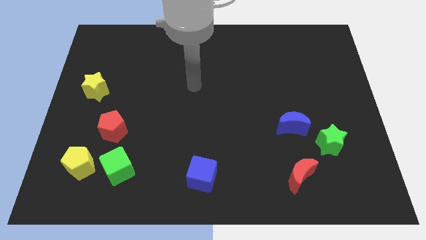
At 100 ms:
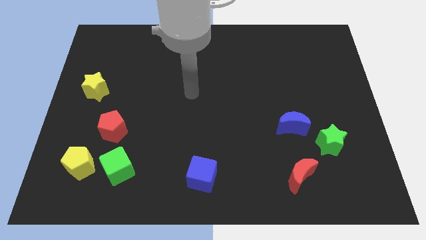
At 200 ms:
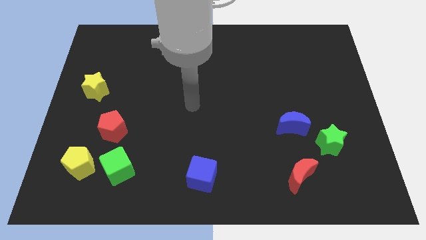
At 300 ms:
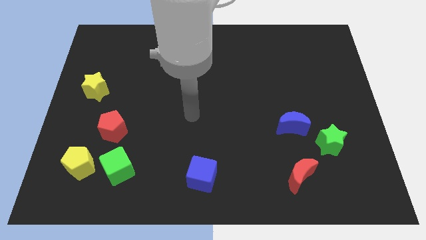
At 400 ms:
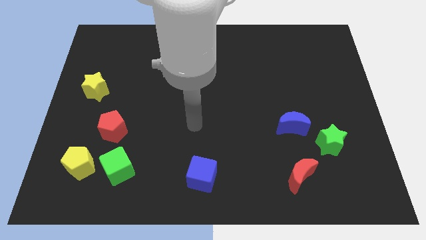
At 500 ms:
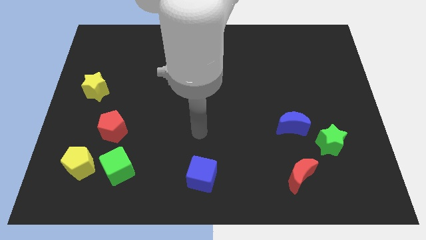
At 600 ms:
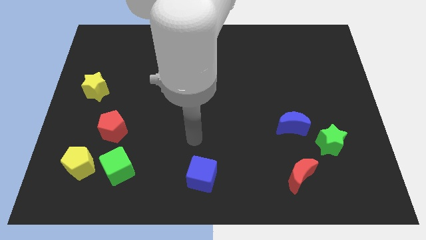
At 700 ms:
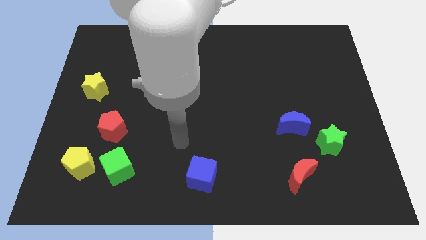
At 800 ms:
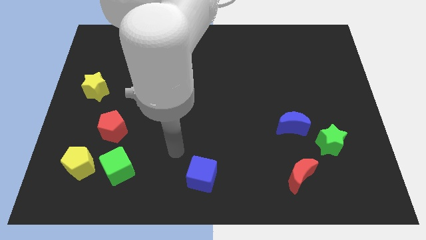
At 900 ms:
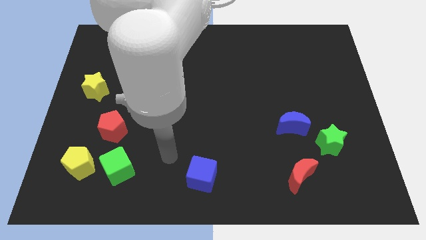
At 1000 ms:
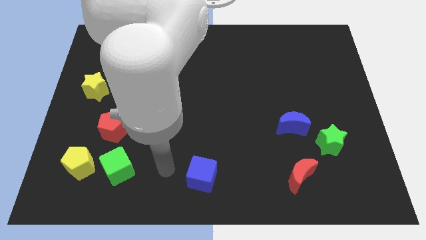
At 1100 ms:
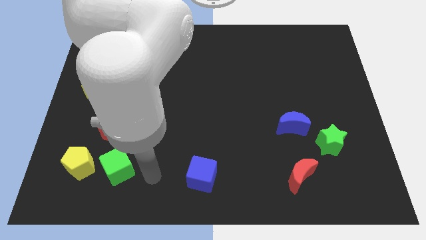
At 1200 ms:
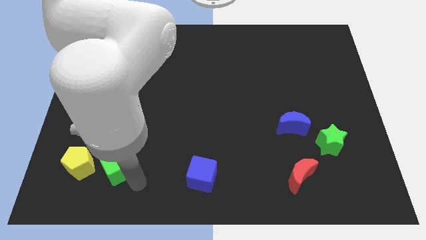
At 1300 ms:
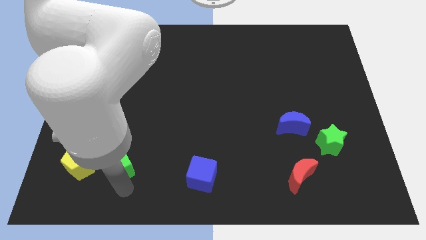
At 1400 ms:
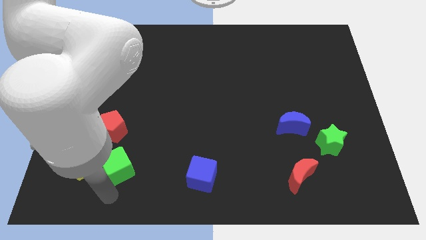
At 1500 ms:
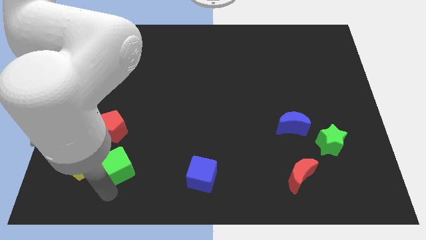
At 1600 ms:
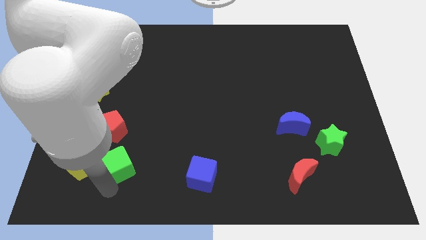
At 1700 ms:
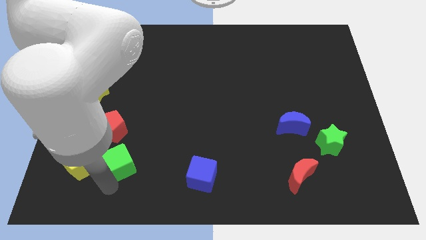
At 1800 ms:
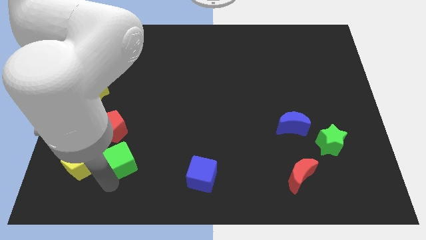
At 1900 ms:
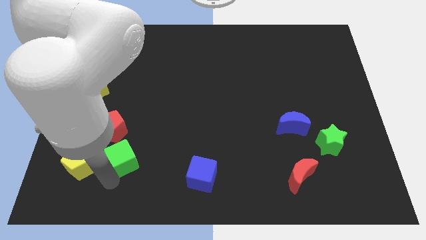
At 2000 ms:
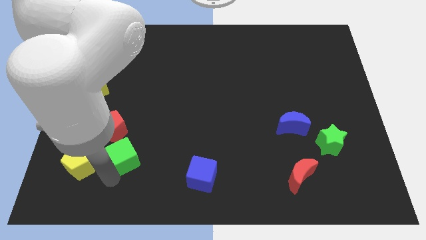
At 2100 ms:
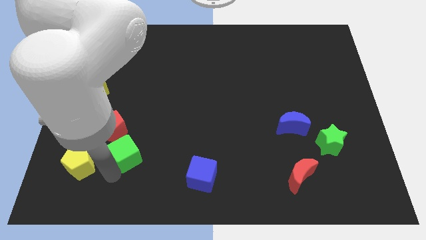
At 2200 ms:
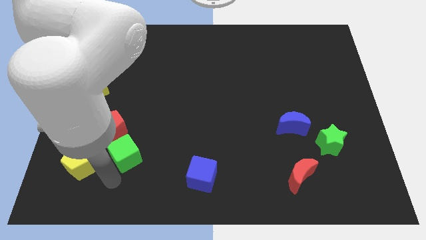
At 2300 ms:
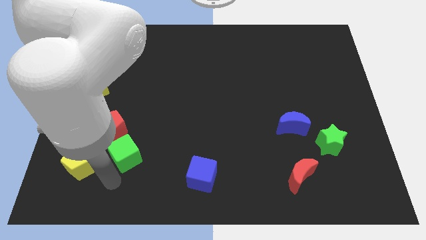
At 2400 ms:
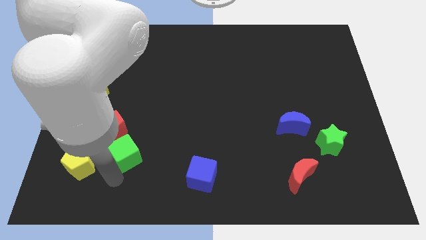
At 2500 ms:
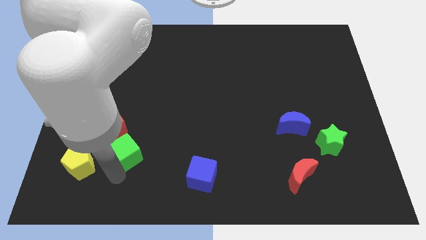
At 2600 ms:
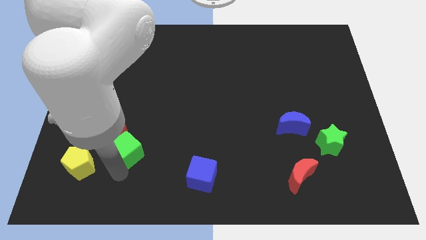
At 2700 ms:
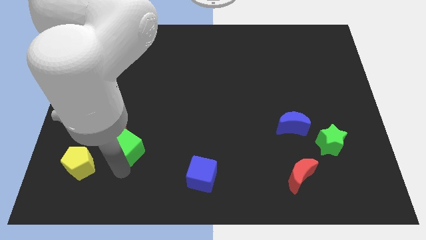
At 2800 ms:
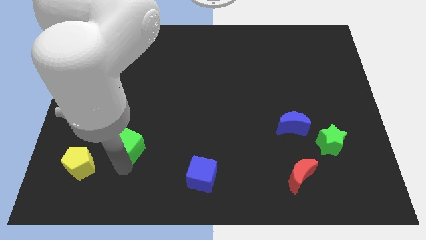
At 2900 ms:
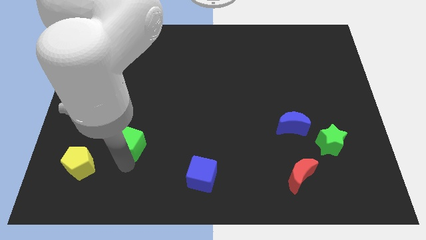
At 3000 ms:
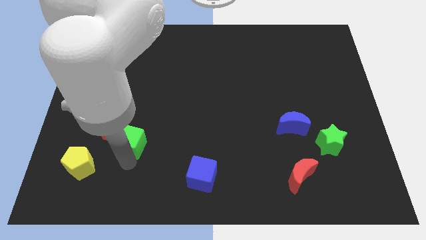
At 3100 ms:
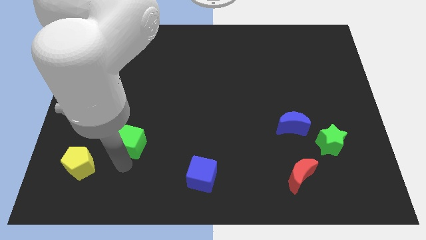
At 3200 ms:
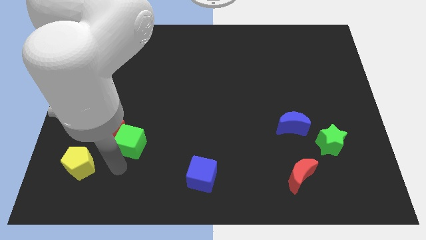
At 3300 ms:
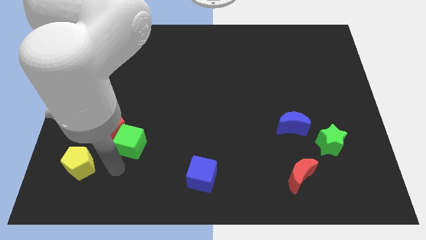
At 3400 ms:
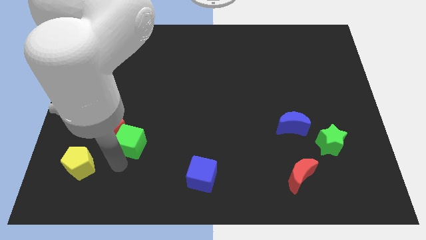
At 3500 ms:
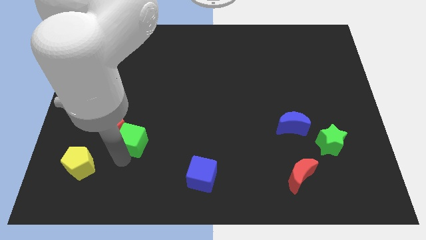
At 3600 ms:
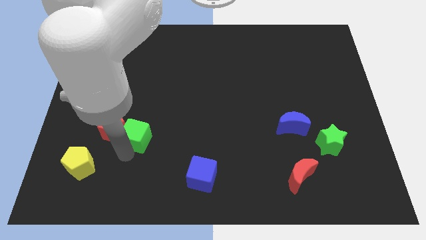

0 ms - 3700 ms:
slide the green cube up somewhat

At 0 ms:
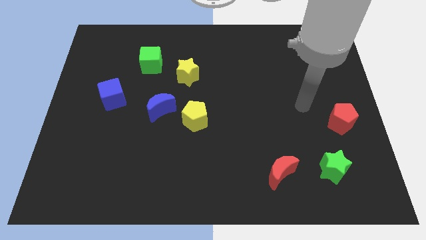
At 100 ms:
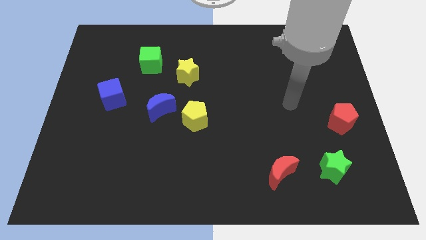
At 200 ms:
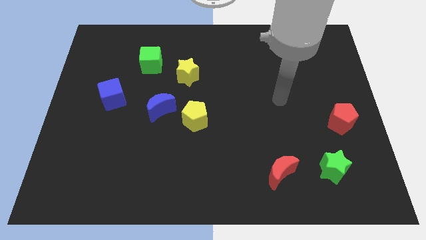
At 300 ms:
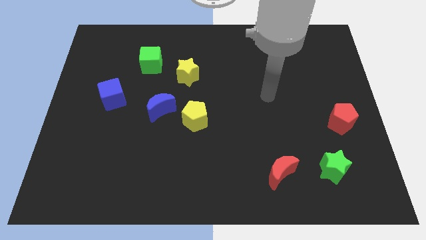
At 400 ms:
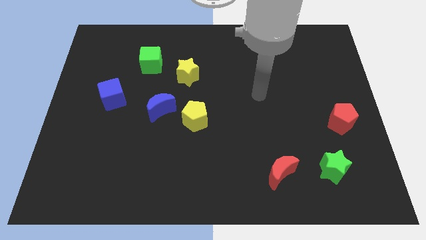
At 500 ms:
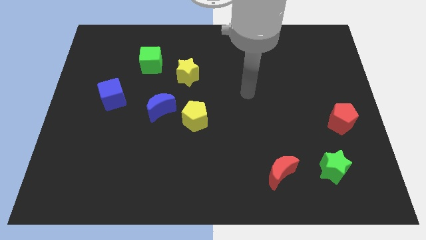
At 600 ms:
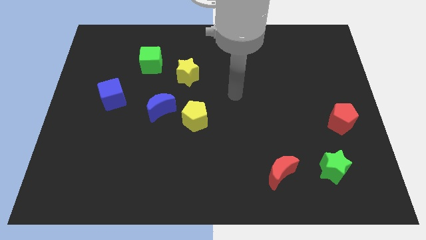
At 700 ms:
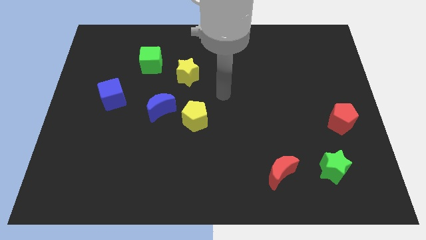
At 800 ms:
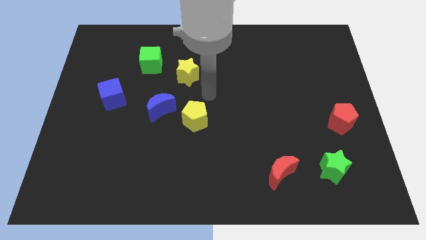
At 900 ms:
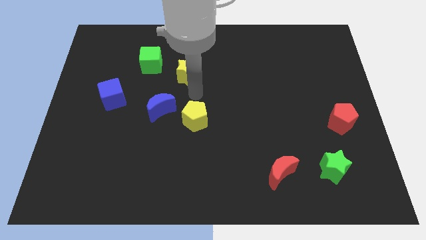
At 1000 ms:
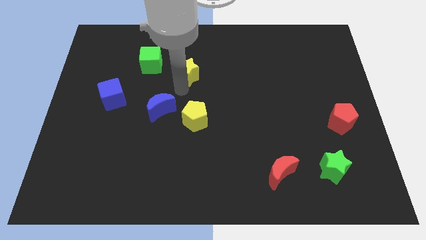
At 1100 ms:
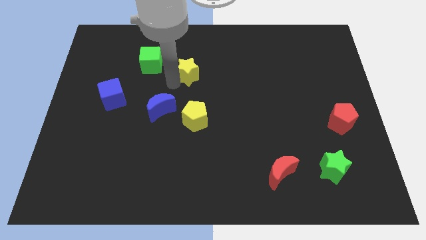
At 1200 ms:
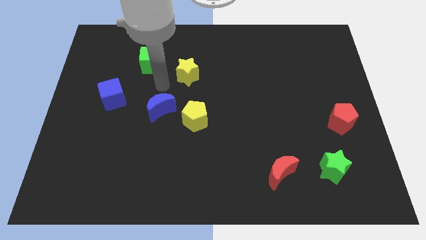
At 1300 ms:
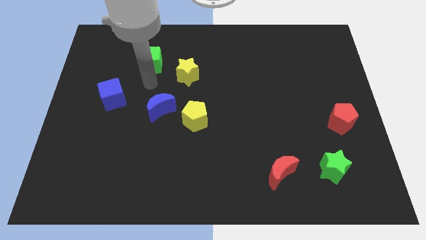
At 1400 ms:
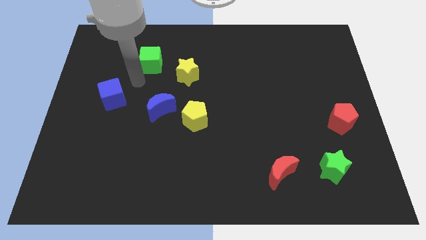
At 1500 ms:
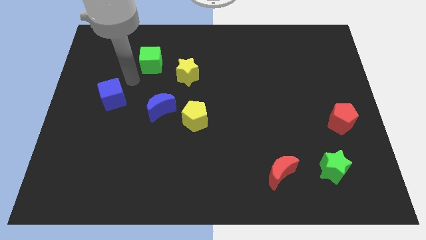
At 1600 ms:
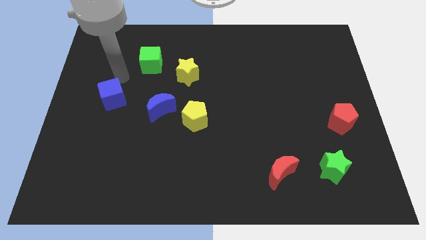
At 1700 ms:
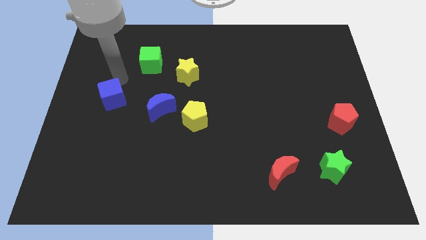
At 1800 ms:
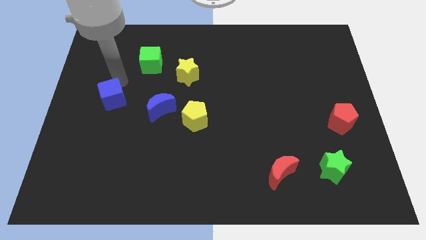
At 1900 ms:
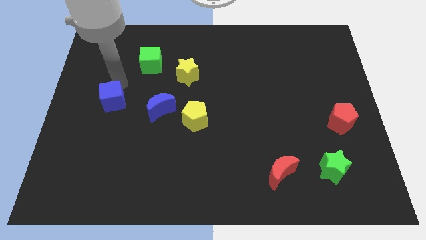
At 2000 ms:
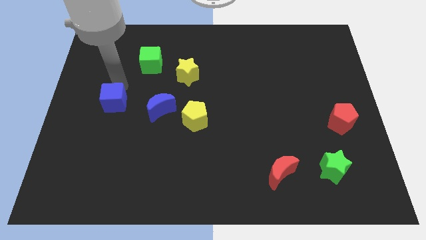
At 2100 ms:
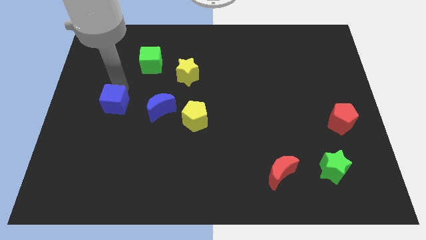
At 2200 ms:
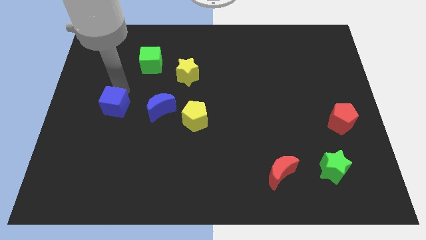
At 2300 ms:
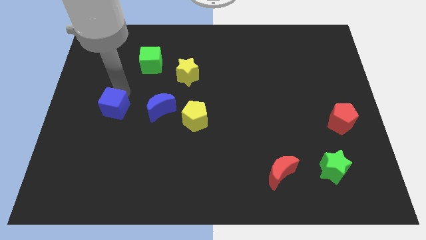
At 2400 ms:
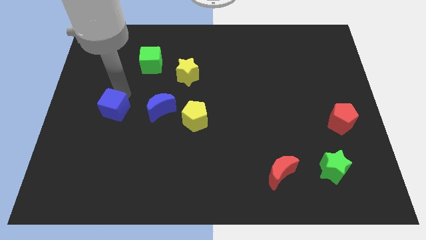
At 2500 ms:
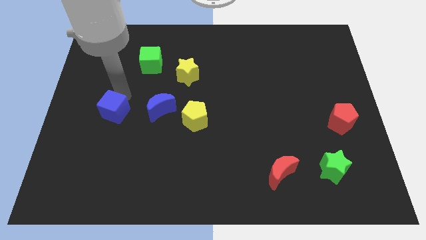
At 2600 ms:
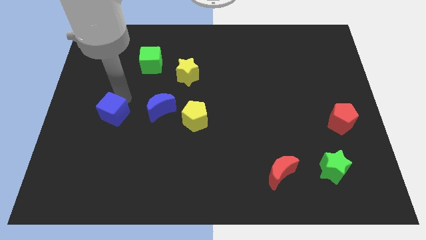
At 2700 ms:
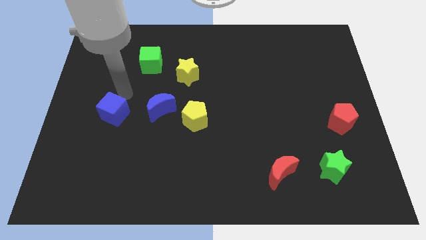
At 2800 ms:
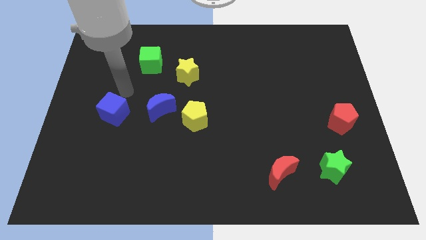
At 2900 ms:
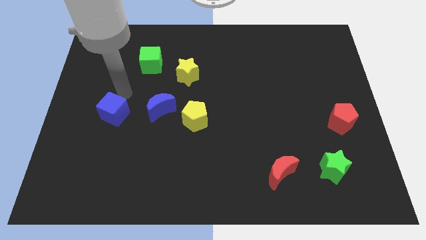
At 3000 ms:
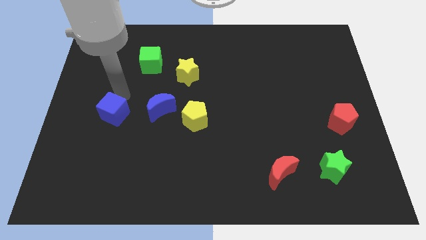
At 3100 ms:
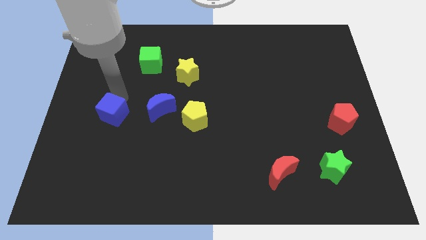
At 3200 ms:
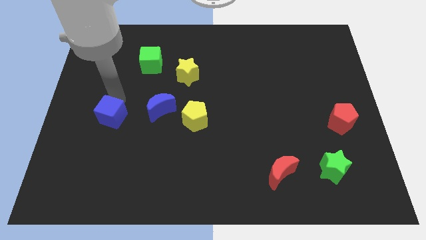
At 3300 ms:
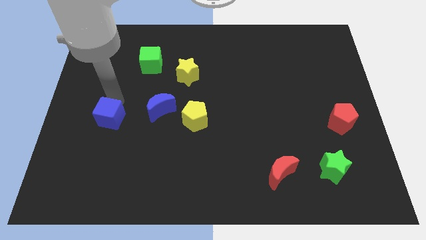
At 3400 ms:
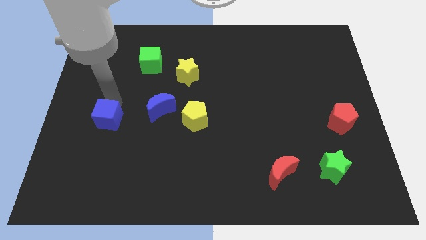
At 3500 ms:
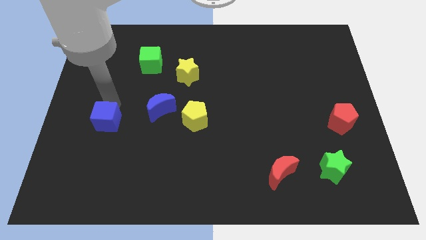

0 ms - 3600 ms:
push the blue cube downwards a little
